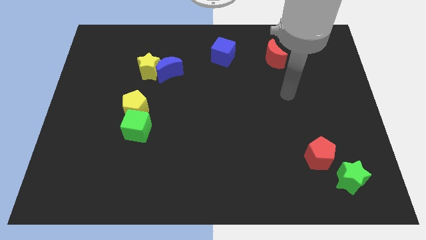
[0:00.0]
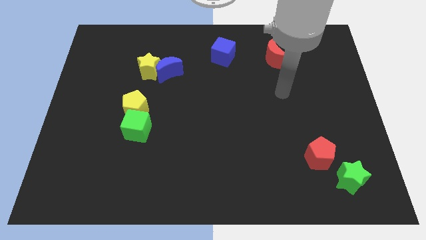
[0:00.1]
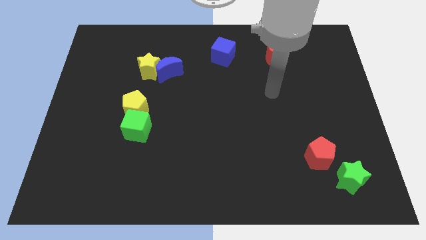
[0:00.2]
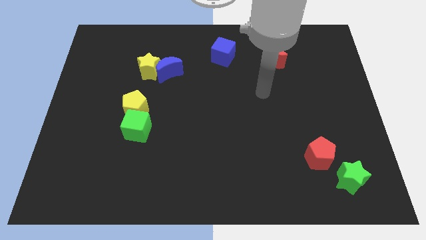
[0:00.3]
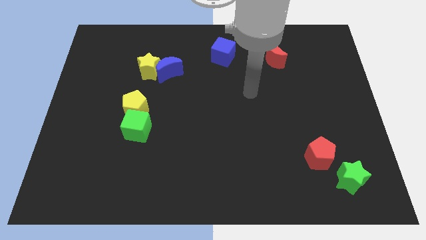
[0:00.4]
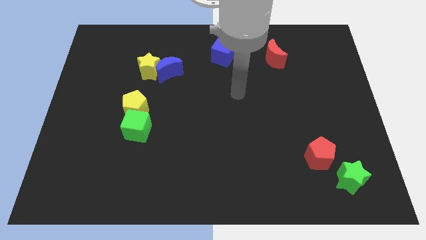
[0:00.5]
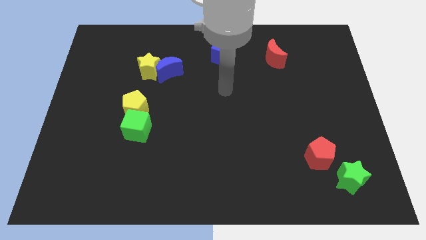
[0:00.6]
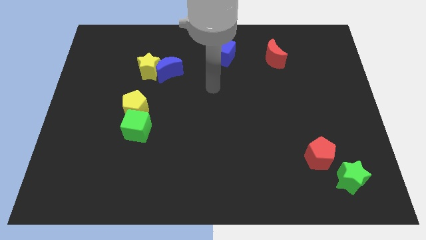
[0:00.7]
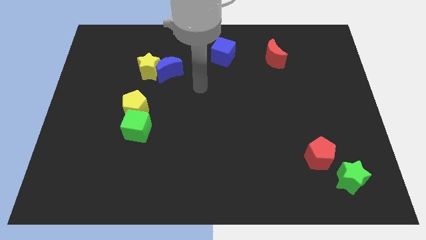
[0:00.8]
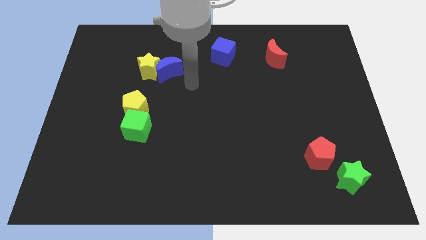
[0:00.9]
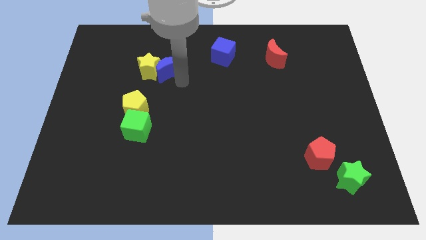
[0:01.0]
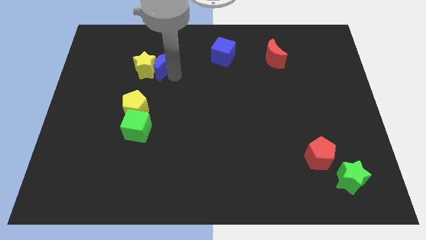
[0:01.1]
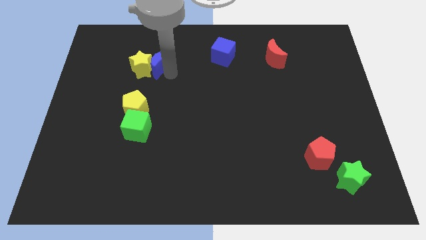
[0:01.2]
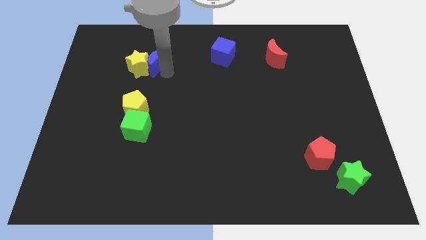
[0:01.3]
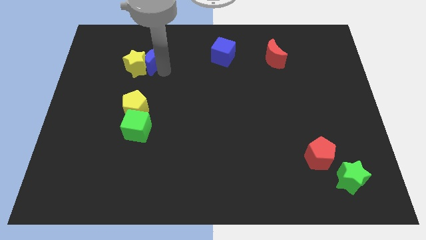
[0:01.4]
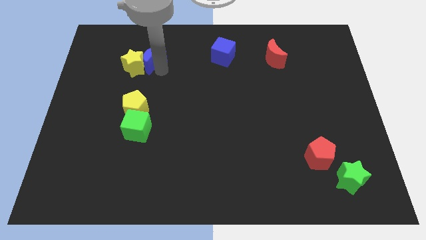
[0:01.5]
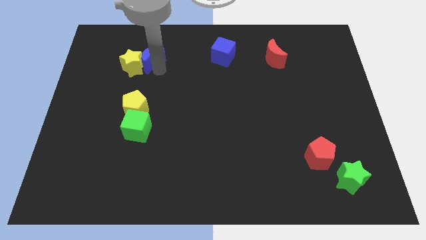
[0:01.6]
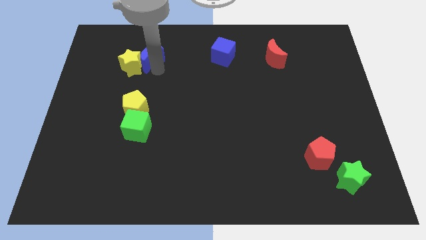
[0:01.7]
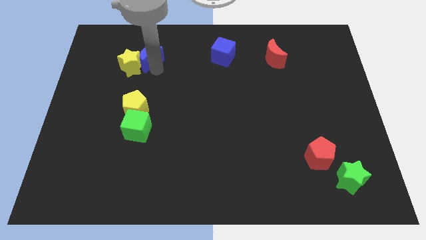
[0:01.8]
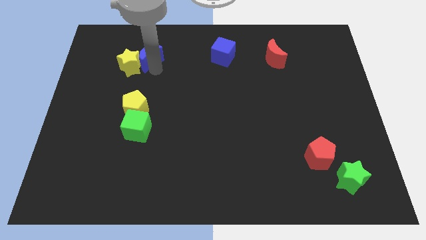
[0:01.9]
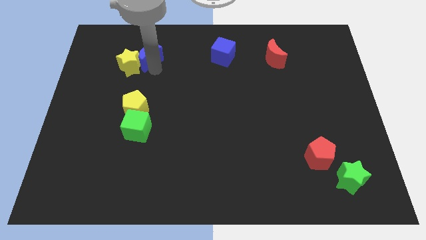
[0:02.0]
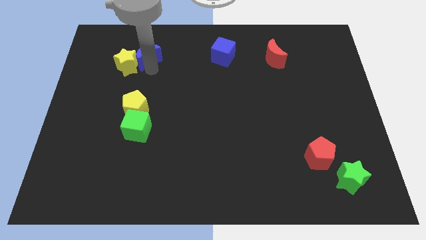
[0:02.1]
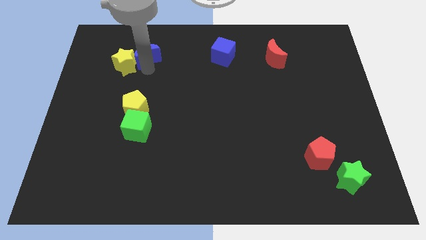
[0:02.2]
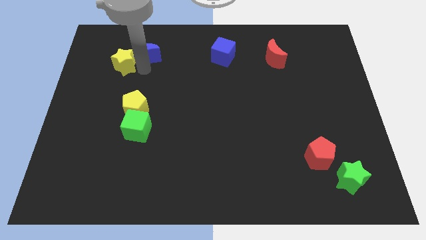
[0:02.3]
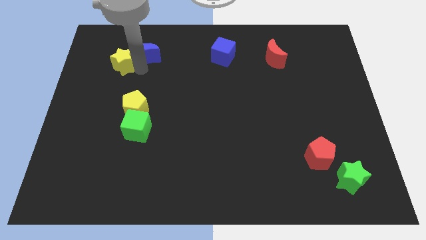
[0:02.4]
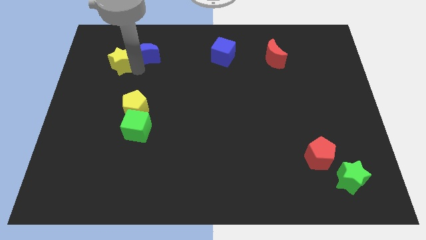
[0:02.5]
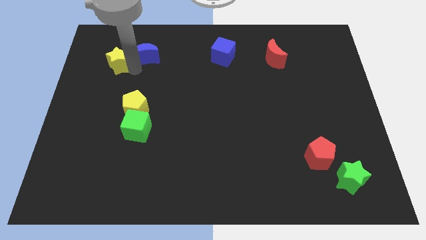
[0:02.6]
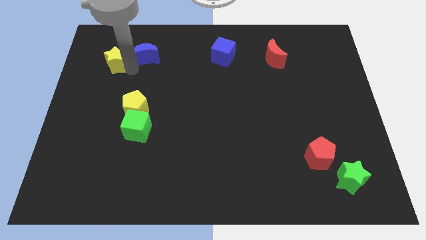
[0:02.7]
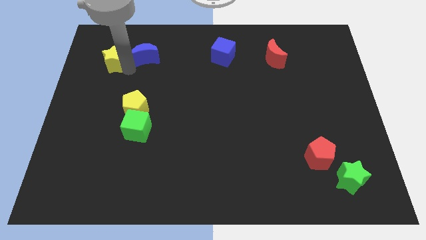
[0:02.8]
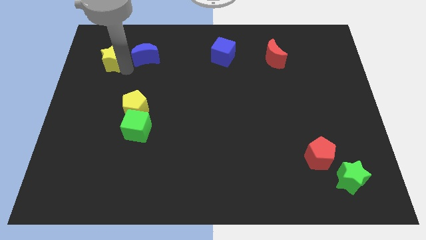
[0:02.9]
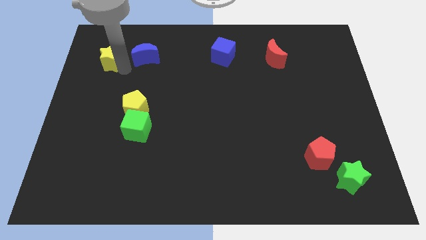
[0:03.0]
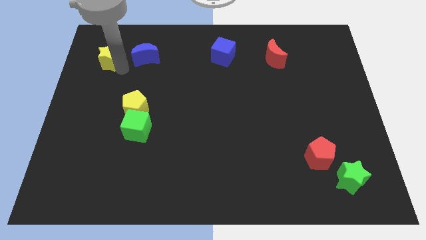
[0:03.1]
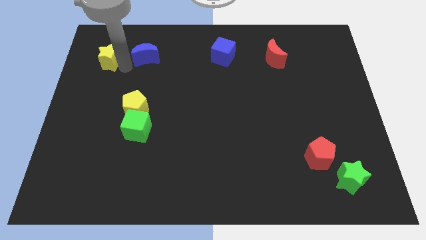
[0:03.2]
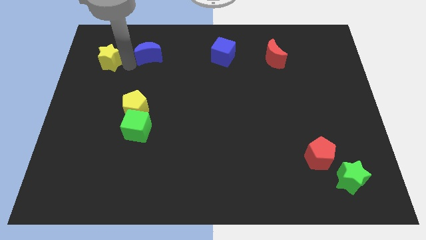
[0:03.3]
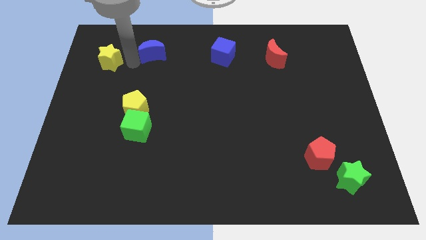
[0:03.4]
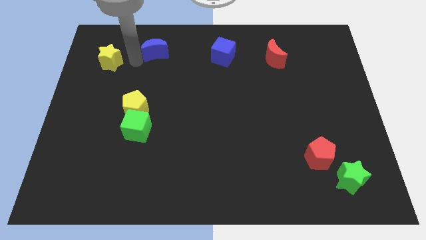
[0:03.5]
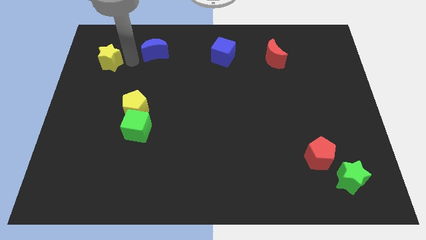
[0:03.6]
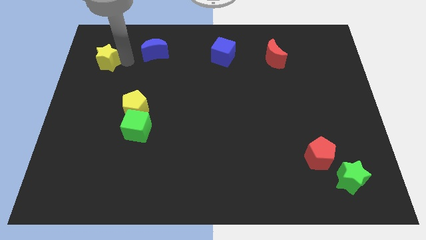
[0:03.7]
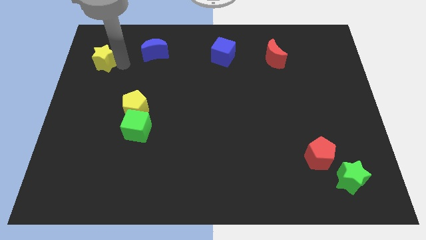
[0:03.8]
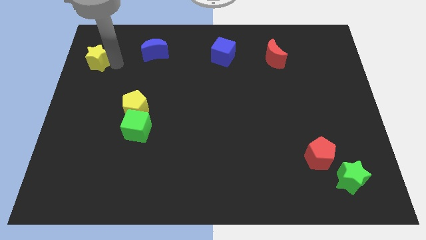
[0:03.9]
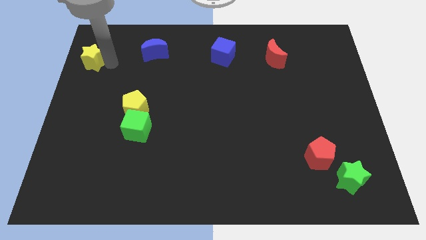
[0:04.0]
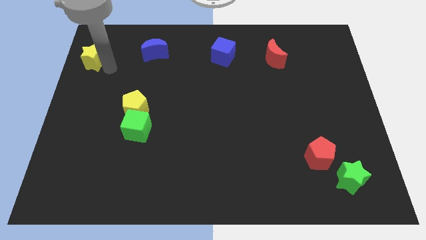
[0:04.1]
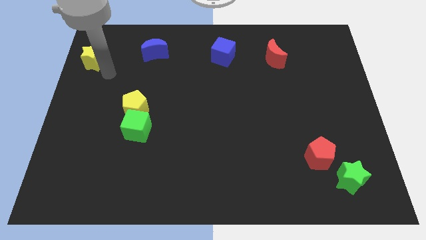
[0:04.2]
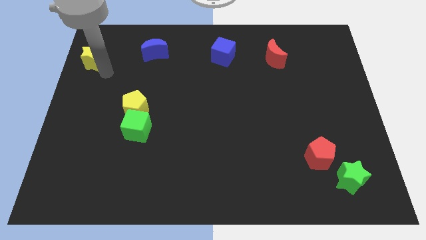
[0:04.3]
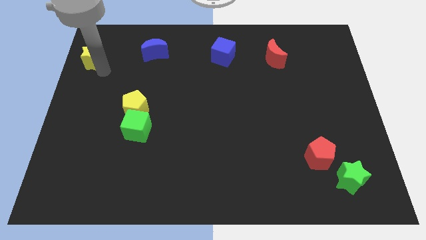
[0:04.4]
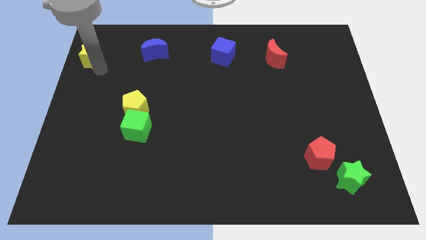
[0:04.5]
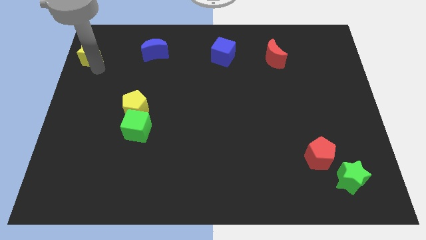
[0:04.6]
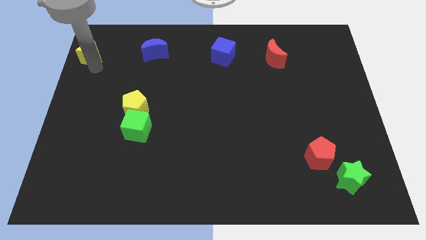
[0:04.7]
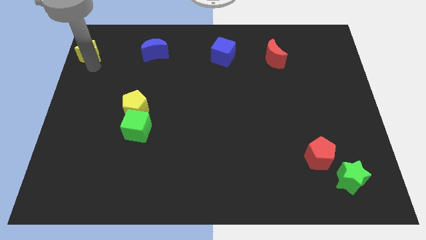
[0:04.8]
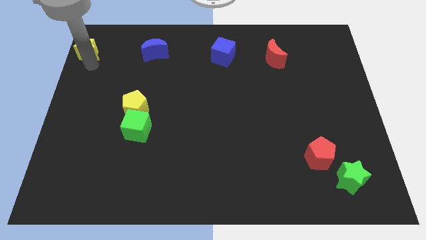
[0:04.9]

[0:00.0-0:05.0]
push the yellow star to the top left of the board

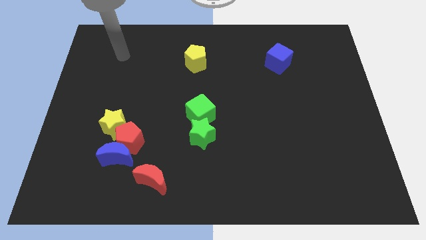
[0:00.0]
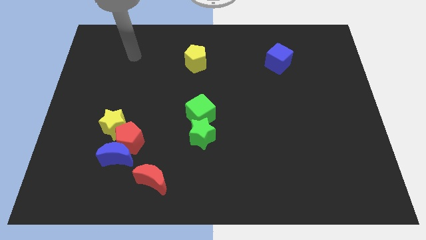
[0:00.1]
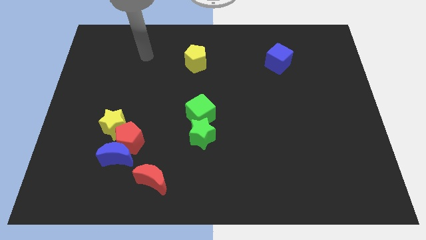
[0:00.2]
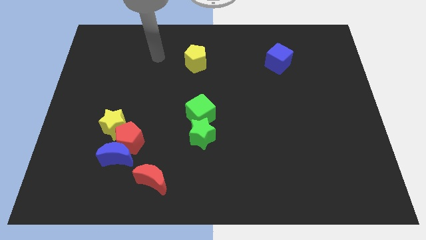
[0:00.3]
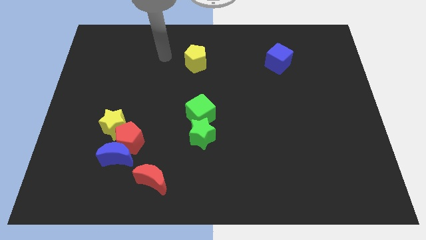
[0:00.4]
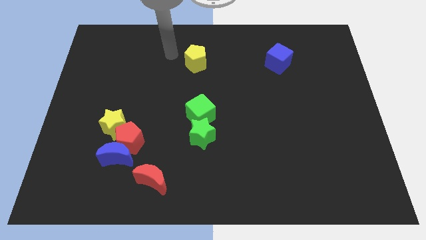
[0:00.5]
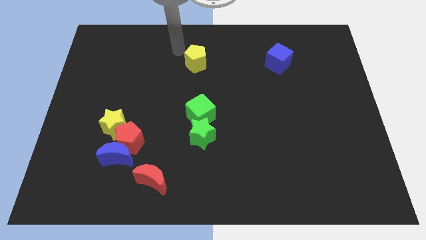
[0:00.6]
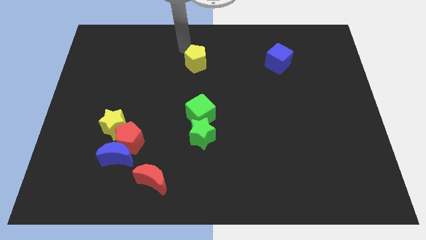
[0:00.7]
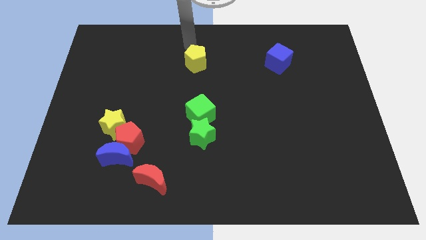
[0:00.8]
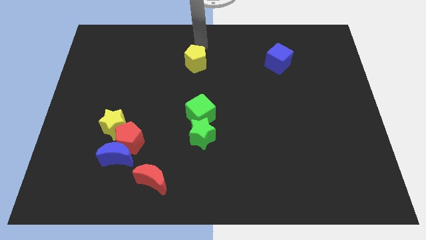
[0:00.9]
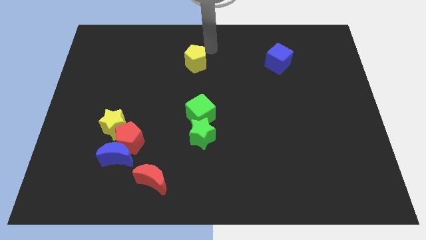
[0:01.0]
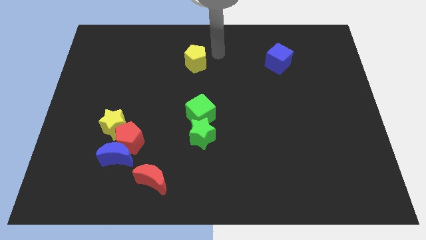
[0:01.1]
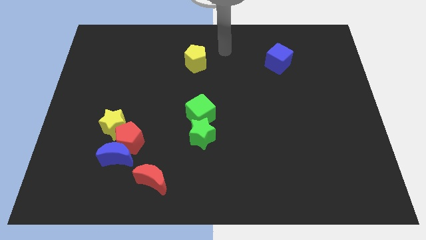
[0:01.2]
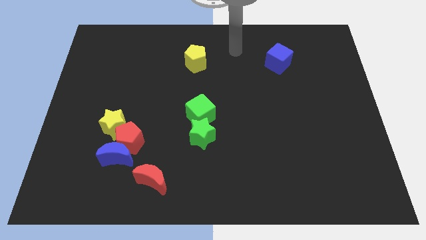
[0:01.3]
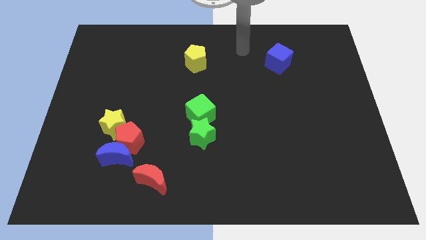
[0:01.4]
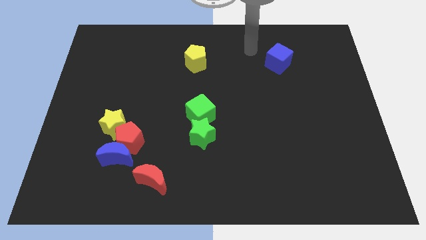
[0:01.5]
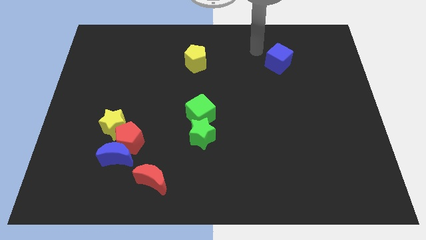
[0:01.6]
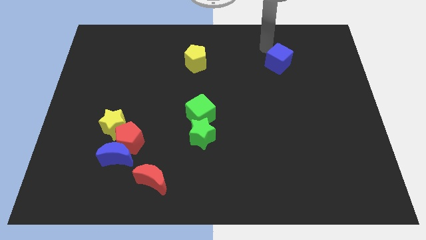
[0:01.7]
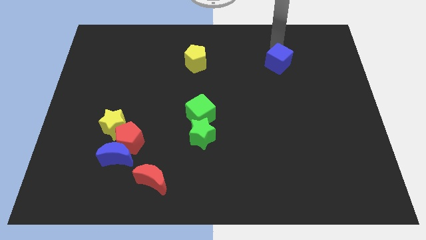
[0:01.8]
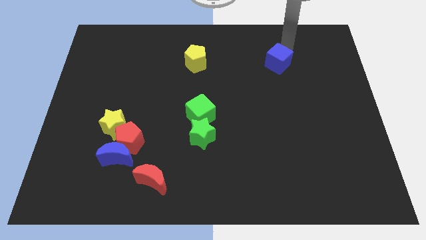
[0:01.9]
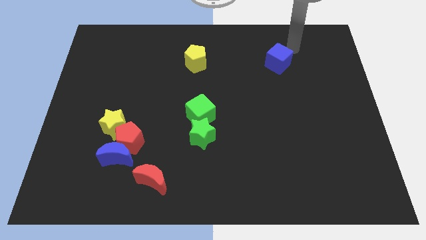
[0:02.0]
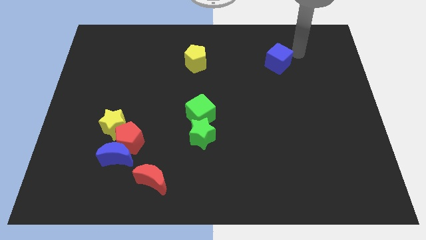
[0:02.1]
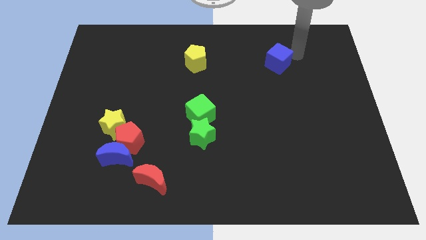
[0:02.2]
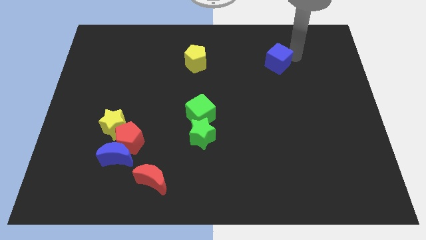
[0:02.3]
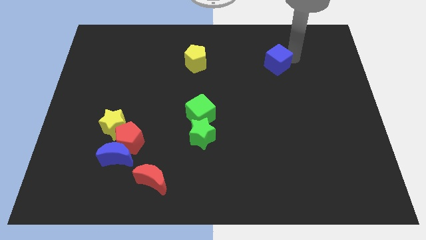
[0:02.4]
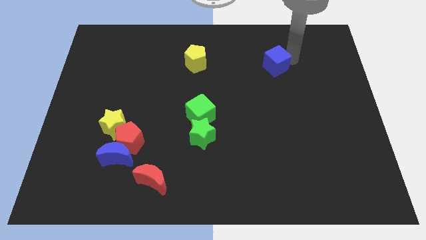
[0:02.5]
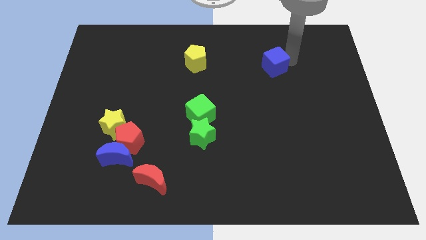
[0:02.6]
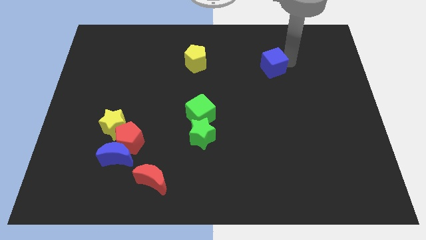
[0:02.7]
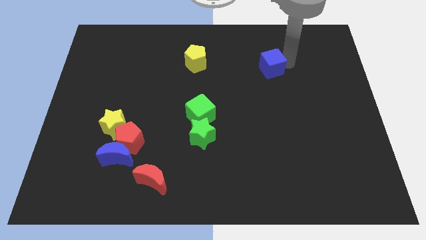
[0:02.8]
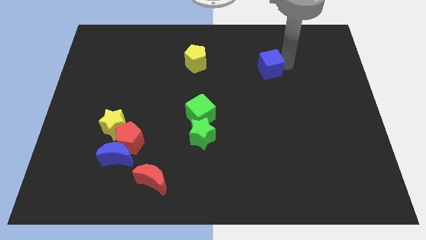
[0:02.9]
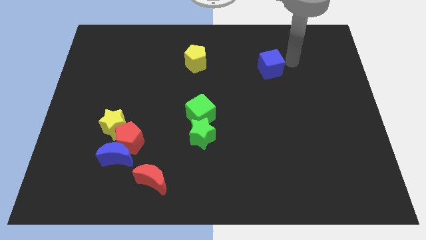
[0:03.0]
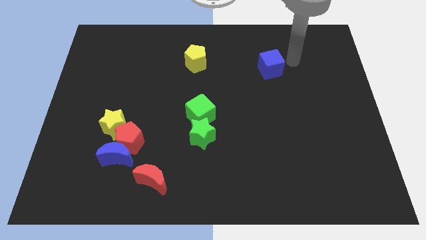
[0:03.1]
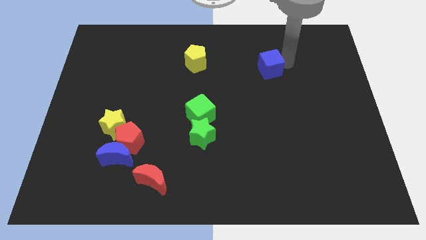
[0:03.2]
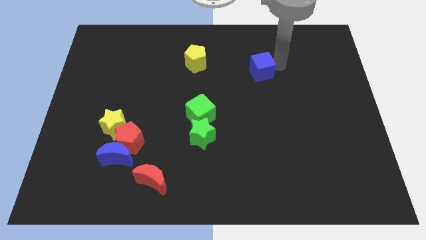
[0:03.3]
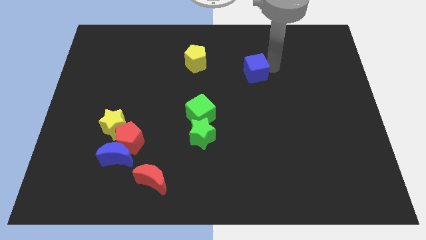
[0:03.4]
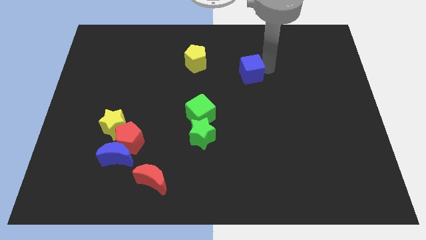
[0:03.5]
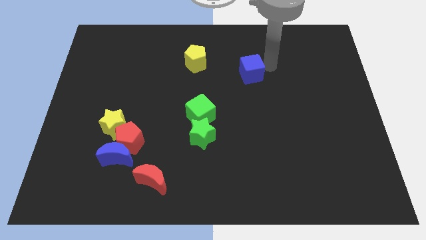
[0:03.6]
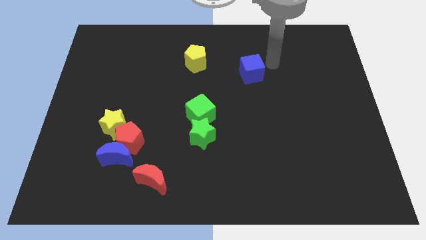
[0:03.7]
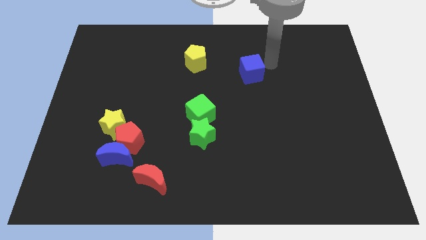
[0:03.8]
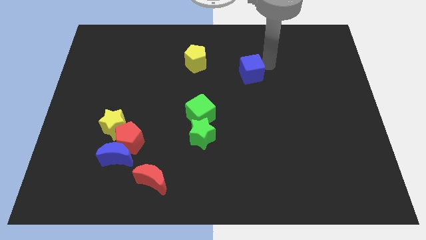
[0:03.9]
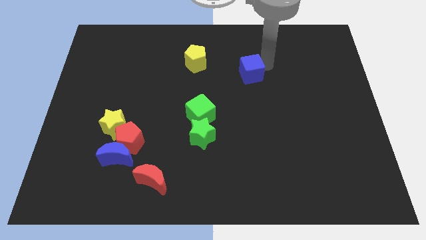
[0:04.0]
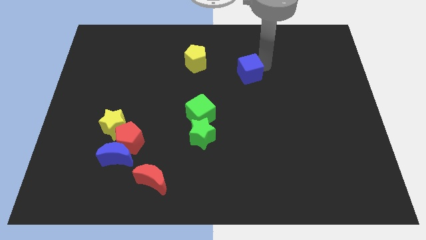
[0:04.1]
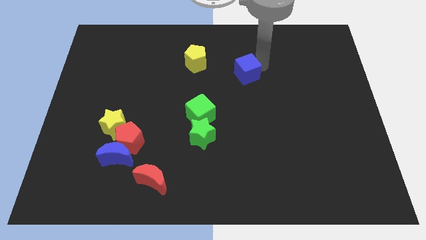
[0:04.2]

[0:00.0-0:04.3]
push the blue cube to the middle of the board
